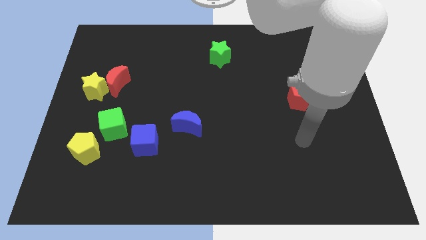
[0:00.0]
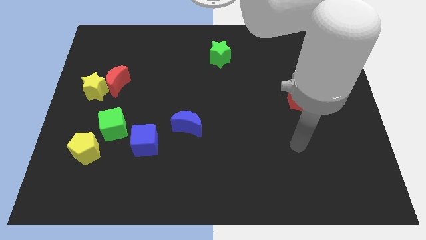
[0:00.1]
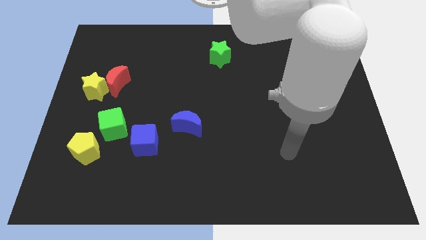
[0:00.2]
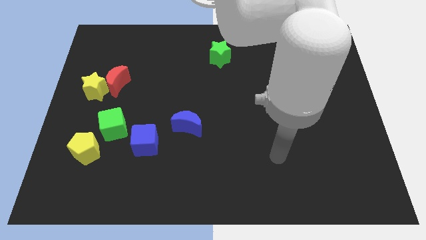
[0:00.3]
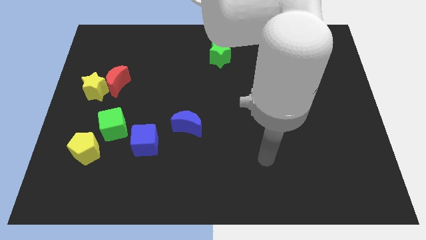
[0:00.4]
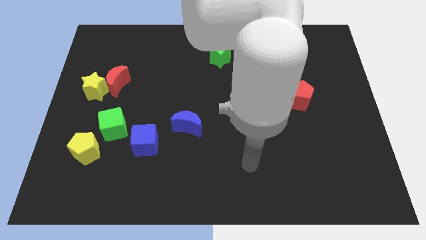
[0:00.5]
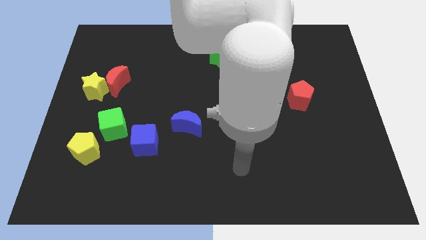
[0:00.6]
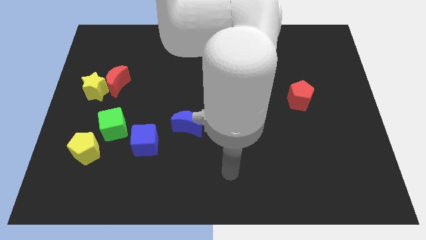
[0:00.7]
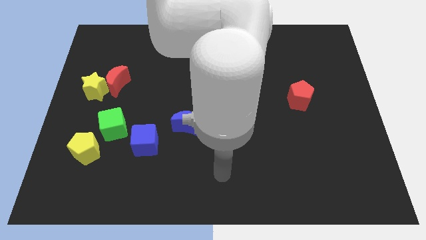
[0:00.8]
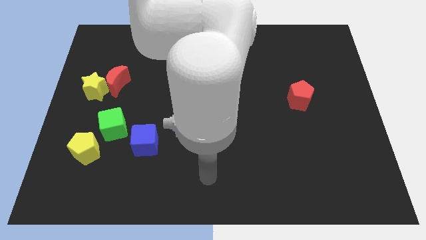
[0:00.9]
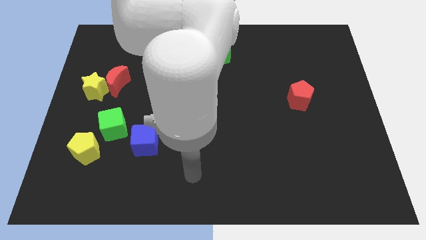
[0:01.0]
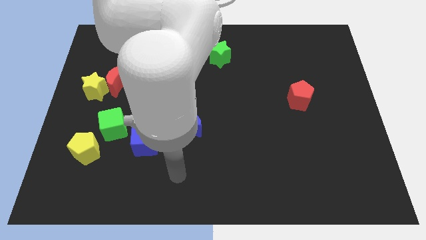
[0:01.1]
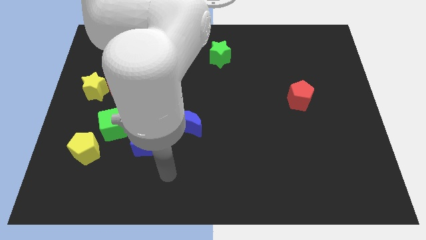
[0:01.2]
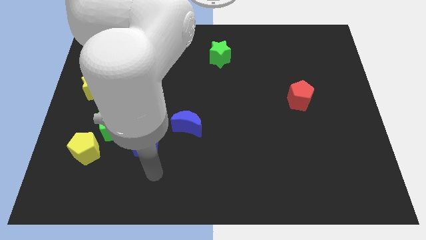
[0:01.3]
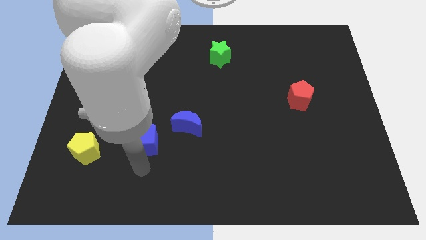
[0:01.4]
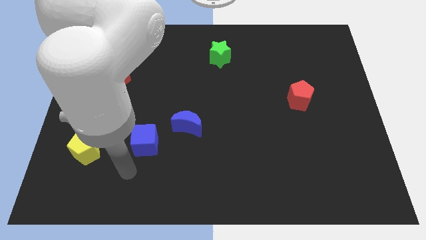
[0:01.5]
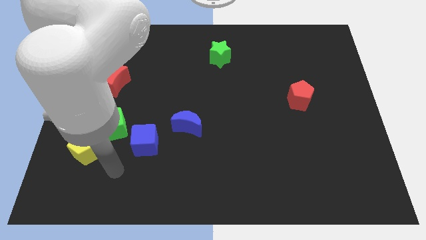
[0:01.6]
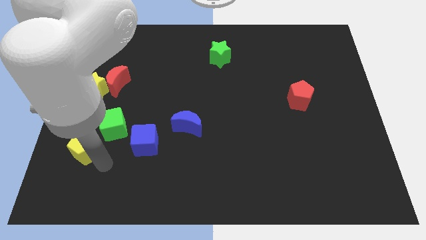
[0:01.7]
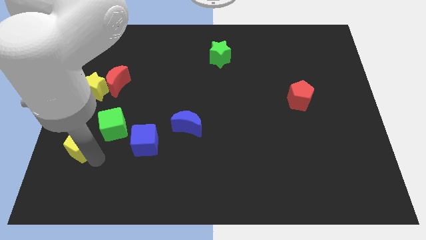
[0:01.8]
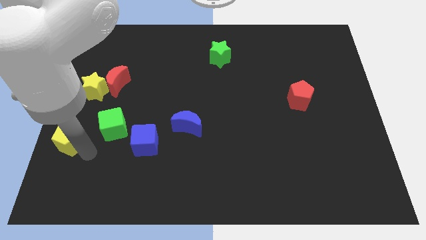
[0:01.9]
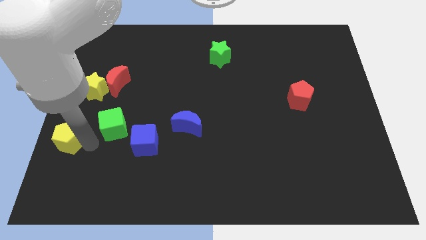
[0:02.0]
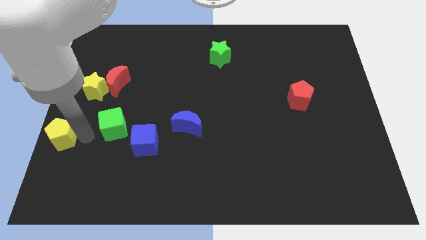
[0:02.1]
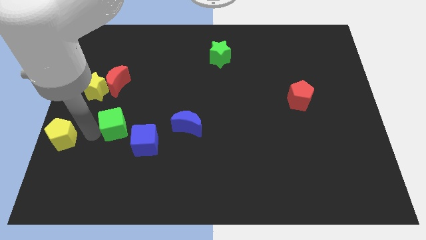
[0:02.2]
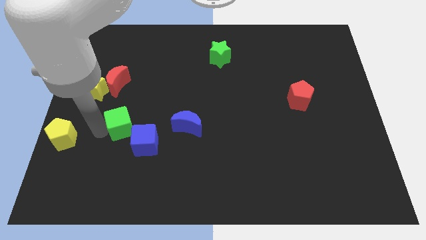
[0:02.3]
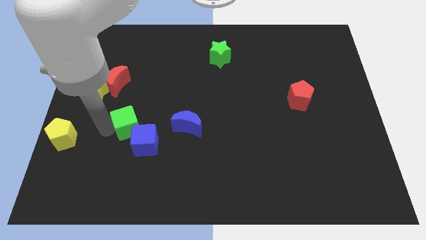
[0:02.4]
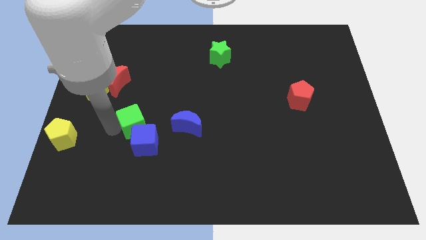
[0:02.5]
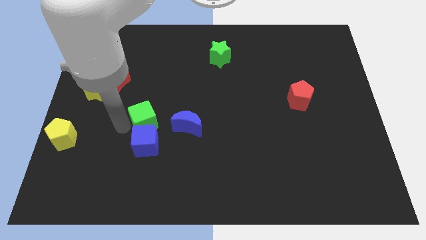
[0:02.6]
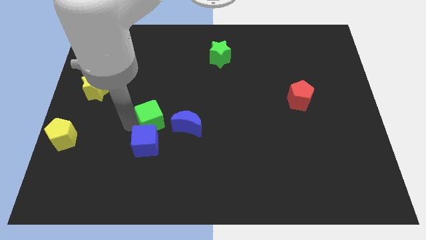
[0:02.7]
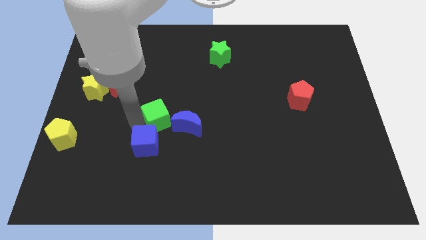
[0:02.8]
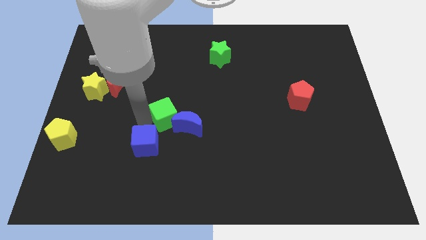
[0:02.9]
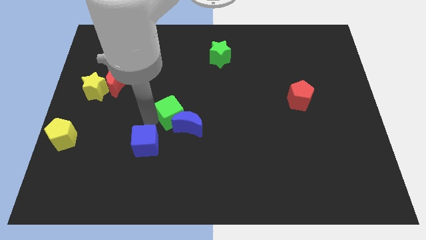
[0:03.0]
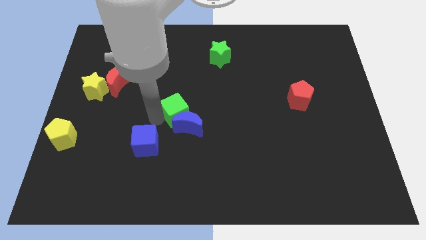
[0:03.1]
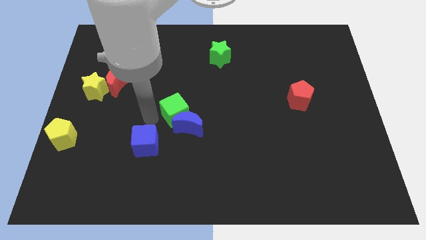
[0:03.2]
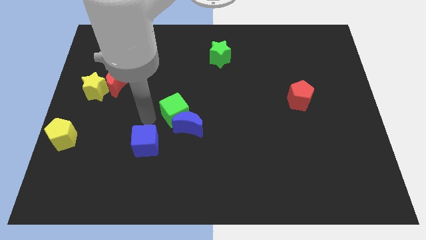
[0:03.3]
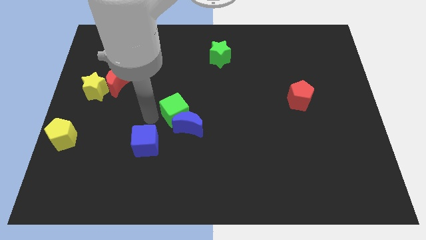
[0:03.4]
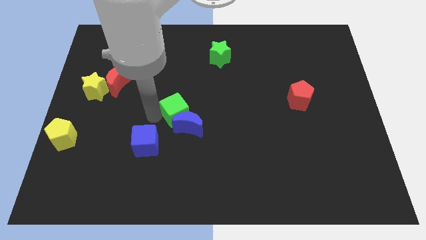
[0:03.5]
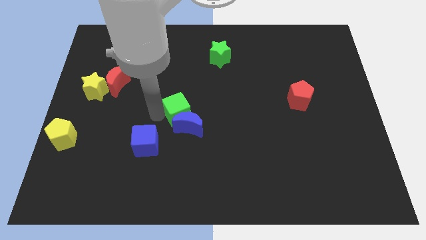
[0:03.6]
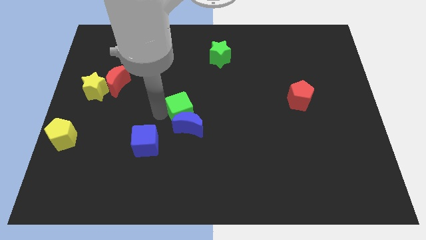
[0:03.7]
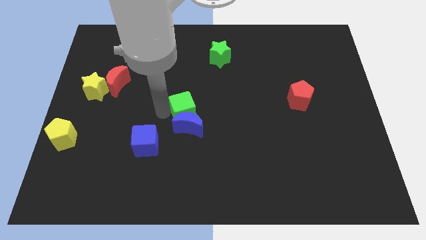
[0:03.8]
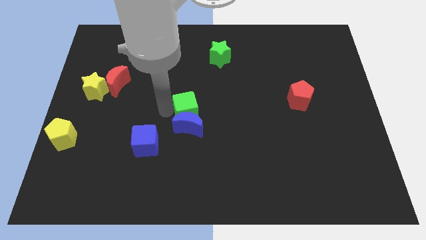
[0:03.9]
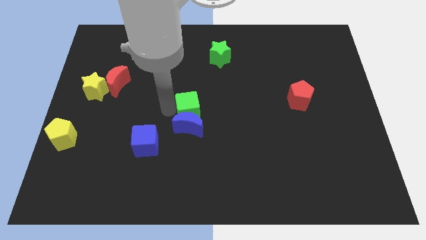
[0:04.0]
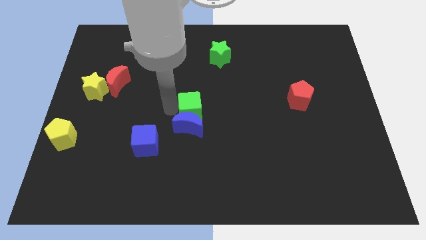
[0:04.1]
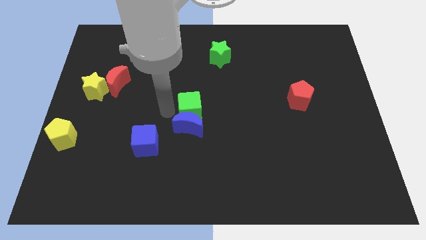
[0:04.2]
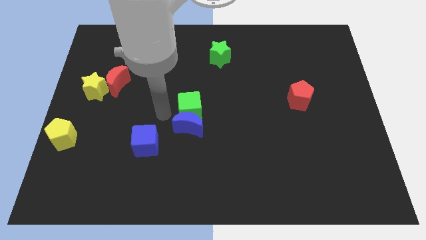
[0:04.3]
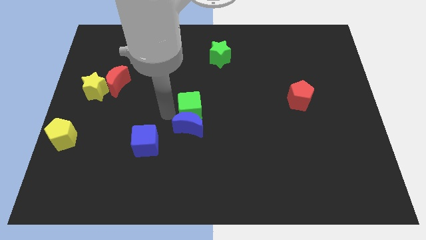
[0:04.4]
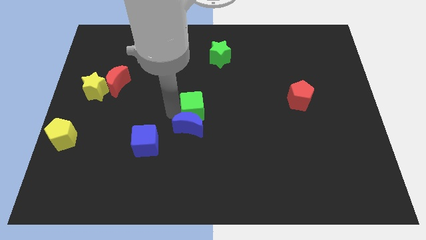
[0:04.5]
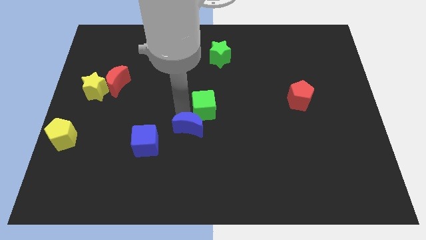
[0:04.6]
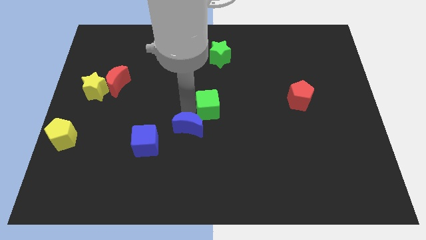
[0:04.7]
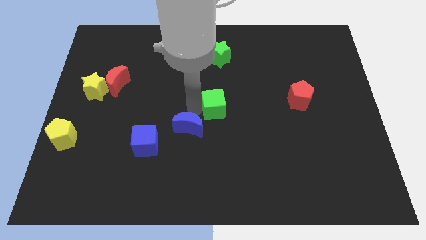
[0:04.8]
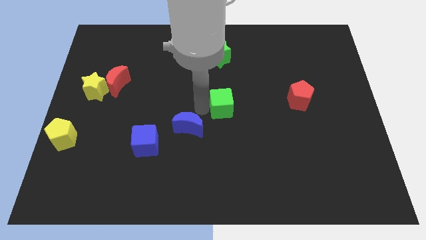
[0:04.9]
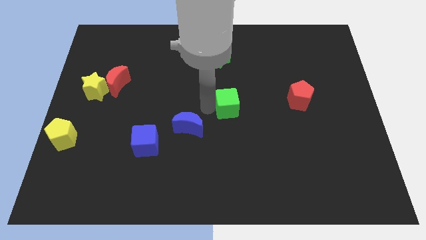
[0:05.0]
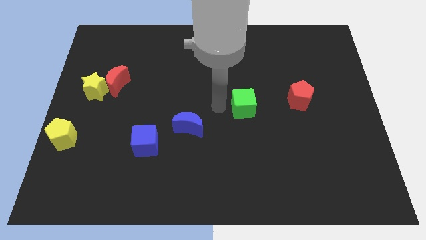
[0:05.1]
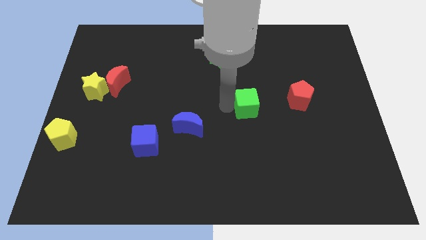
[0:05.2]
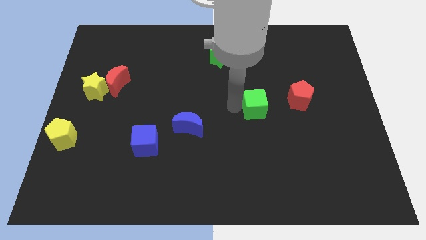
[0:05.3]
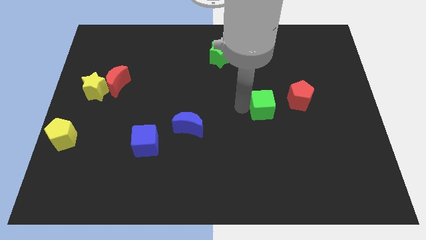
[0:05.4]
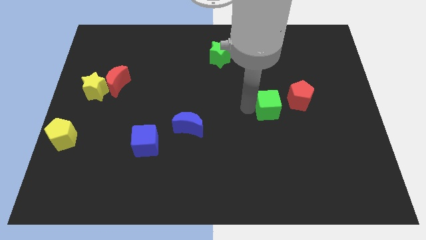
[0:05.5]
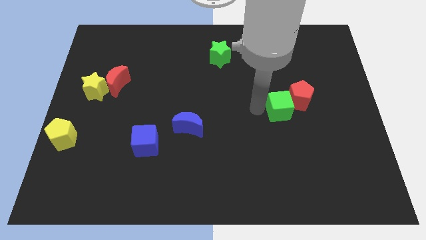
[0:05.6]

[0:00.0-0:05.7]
slide the green cube next to the red pentagon

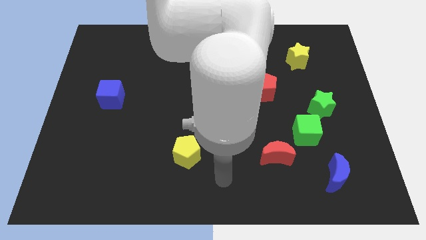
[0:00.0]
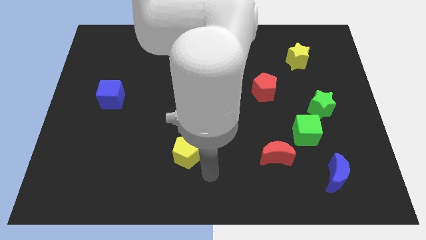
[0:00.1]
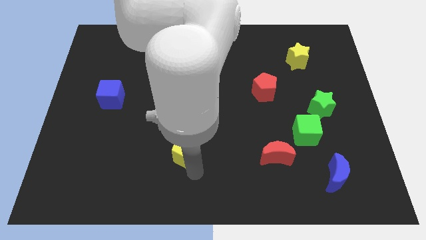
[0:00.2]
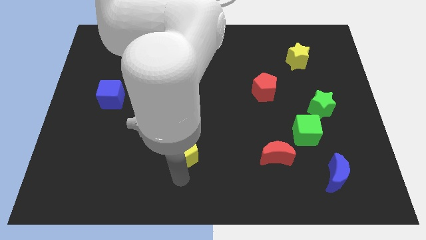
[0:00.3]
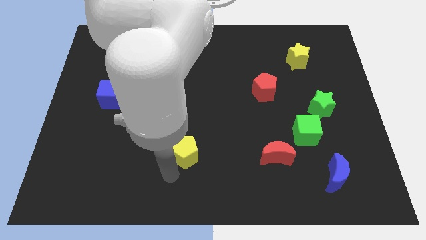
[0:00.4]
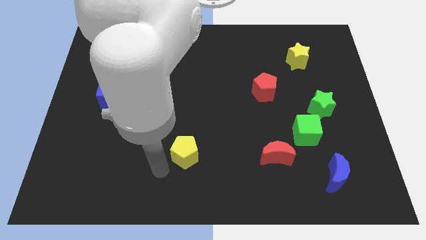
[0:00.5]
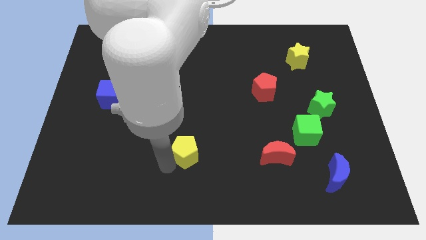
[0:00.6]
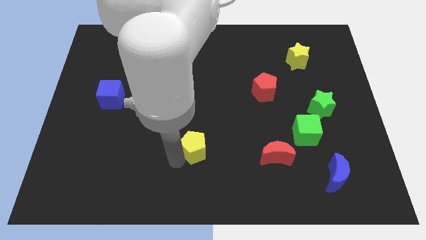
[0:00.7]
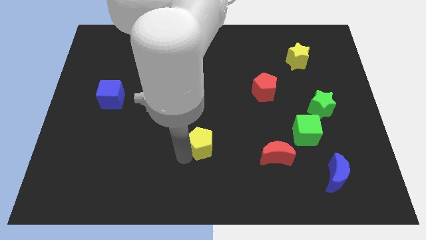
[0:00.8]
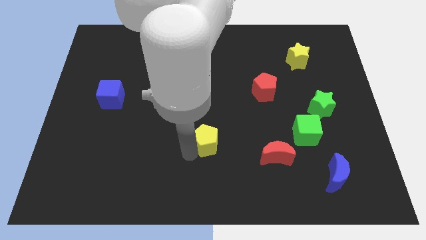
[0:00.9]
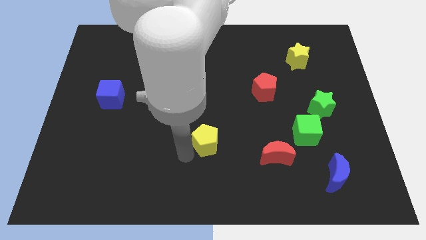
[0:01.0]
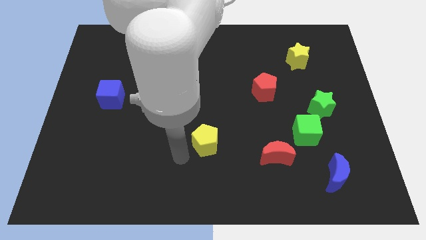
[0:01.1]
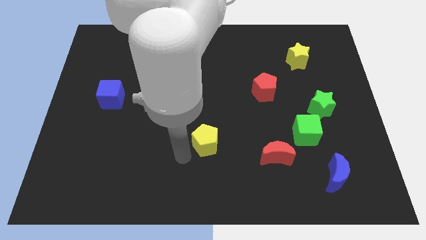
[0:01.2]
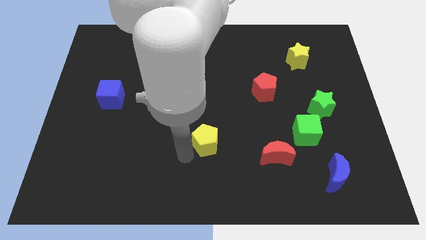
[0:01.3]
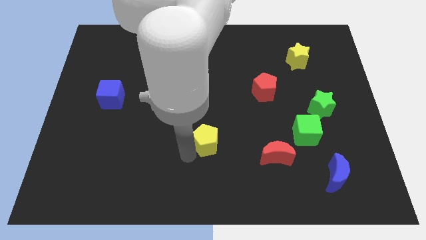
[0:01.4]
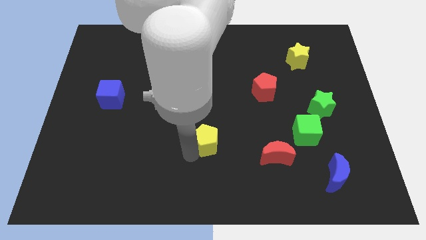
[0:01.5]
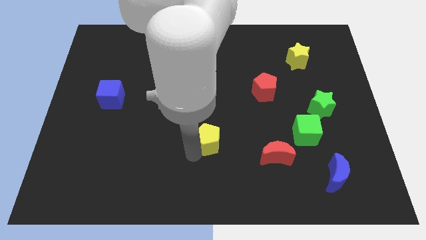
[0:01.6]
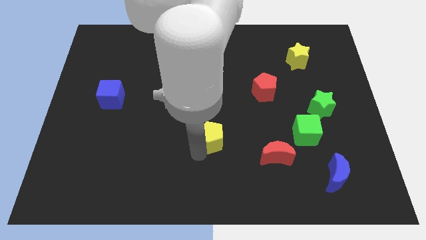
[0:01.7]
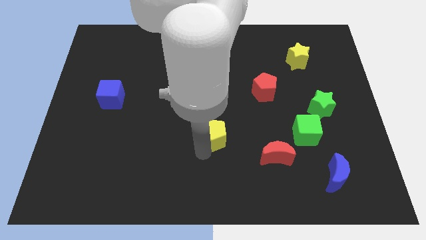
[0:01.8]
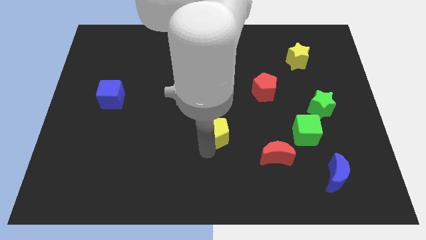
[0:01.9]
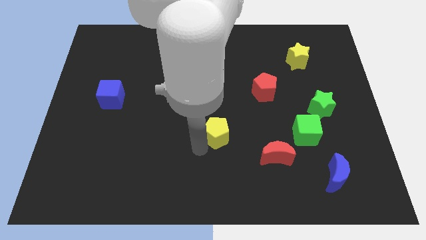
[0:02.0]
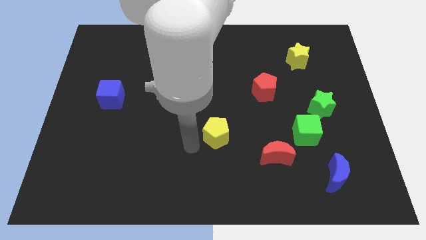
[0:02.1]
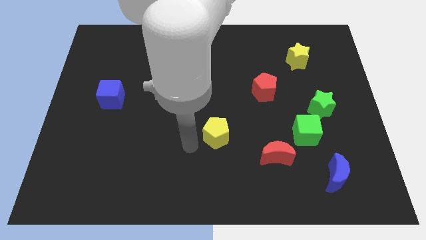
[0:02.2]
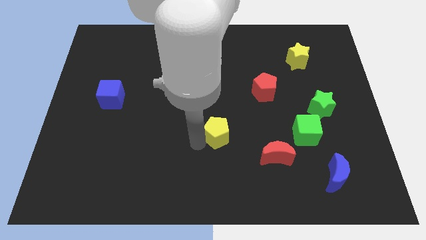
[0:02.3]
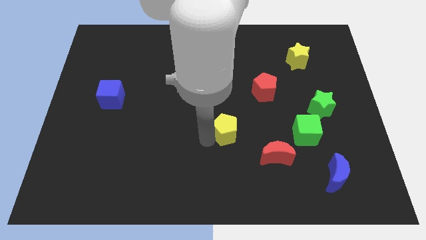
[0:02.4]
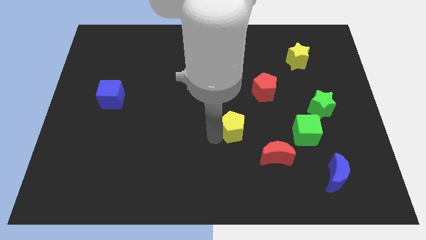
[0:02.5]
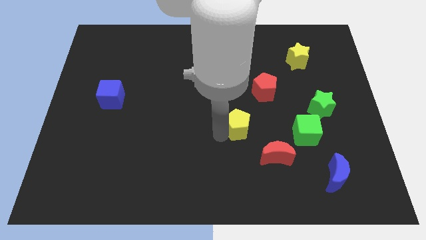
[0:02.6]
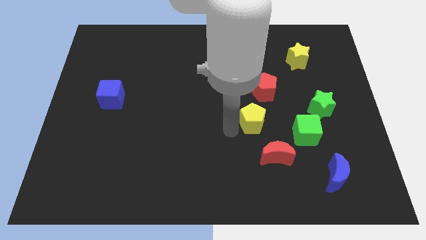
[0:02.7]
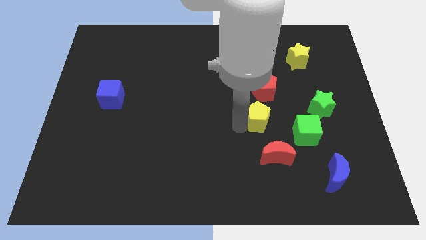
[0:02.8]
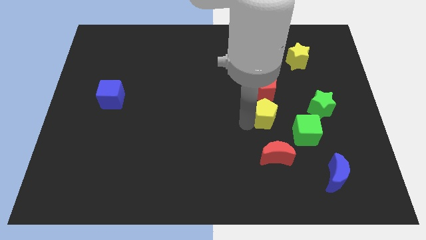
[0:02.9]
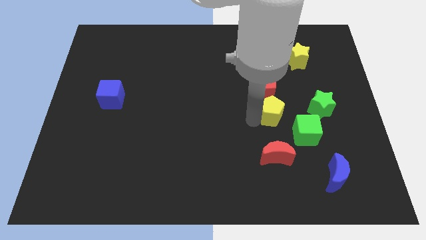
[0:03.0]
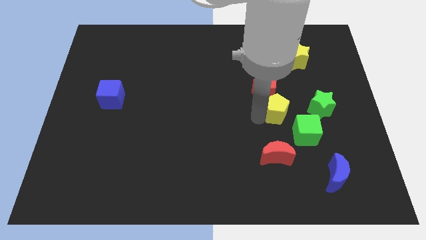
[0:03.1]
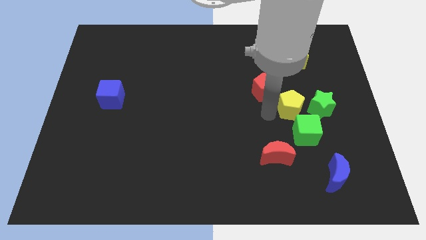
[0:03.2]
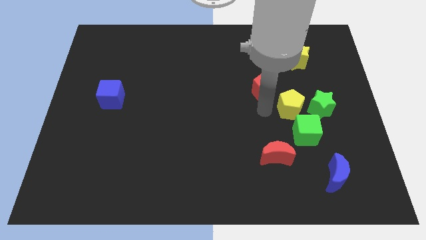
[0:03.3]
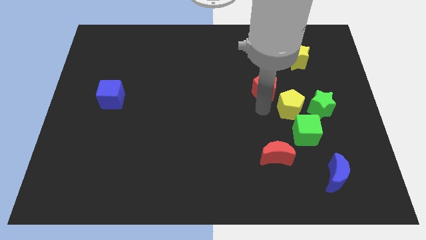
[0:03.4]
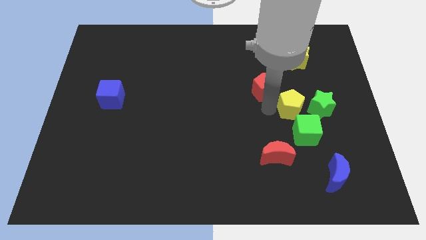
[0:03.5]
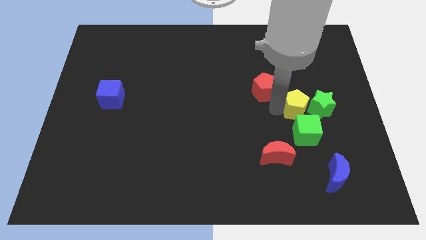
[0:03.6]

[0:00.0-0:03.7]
put the yellow pentagon to the green star
